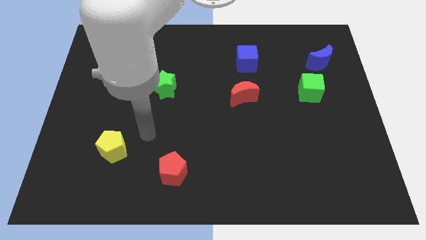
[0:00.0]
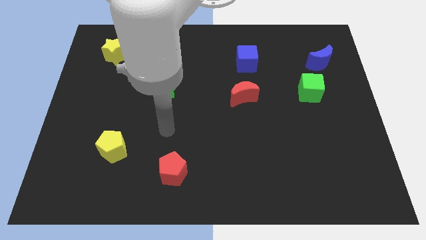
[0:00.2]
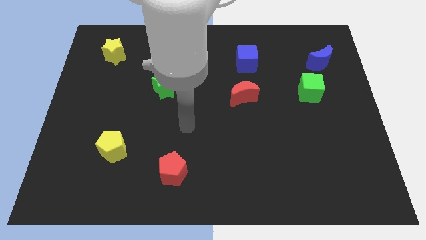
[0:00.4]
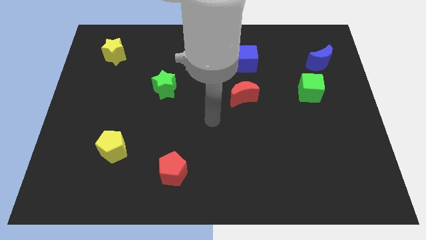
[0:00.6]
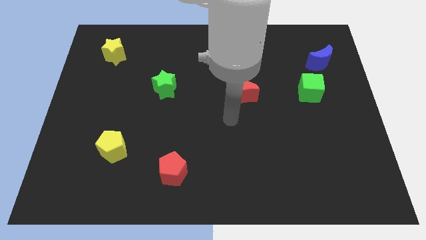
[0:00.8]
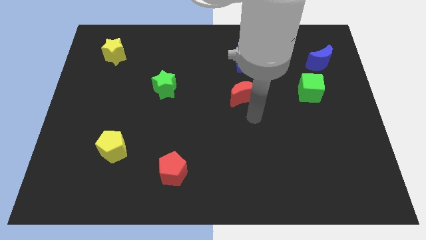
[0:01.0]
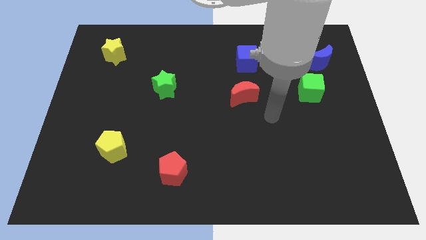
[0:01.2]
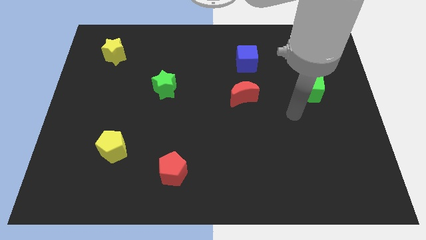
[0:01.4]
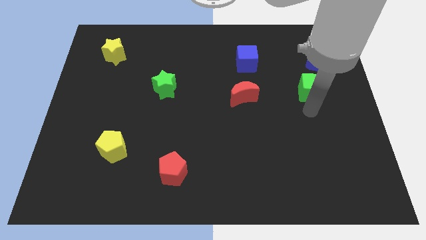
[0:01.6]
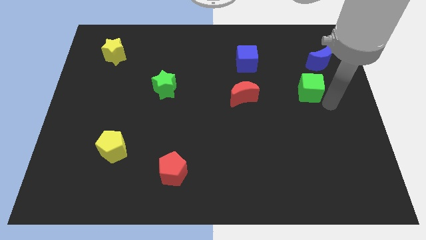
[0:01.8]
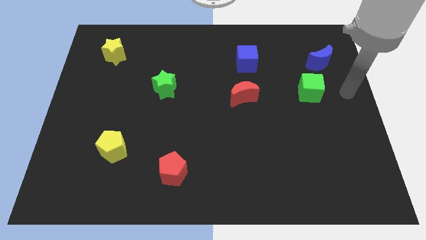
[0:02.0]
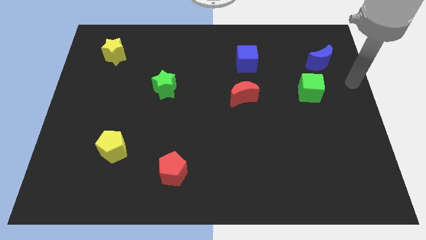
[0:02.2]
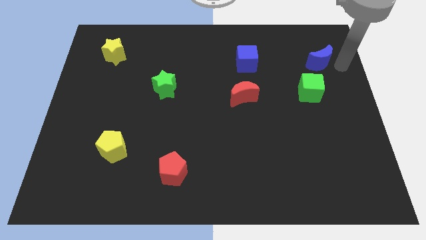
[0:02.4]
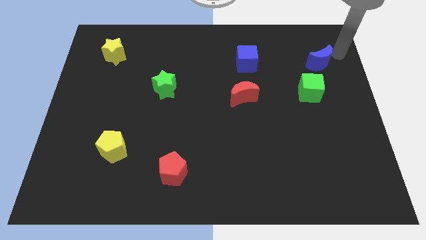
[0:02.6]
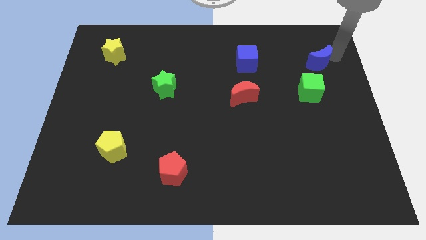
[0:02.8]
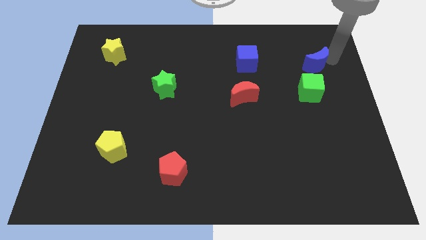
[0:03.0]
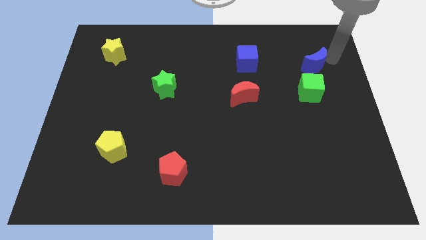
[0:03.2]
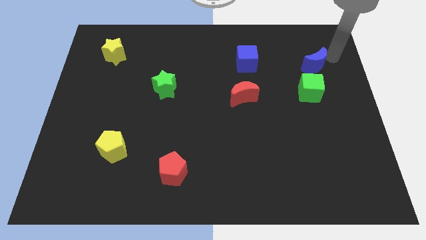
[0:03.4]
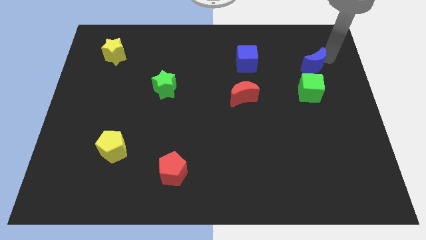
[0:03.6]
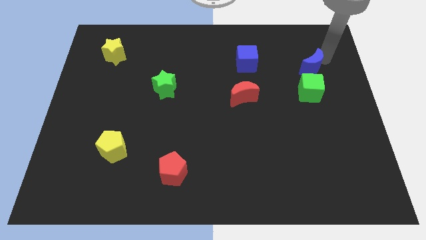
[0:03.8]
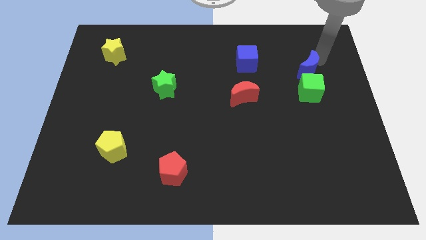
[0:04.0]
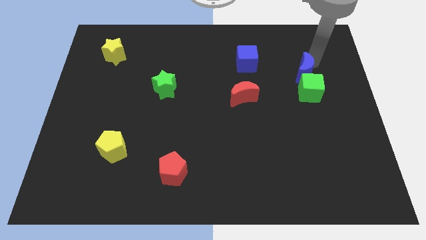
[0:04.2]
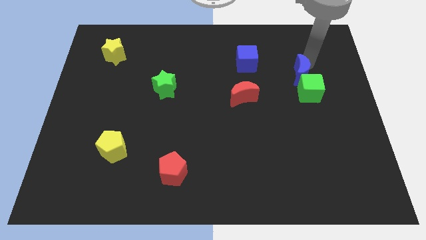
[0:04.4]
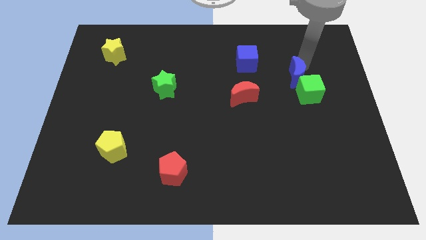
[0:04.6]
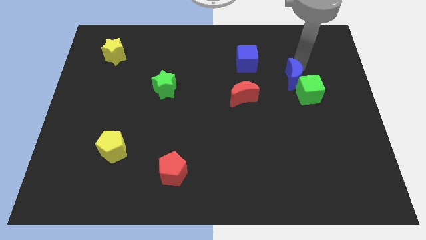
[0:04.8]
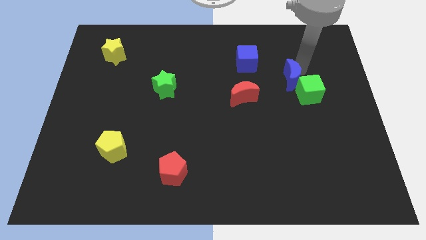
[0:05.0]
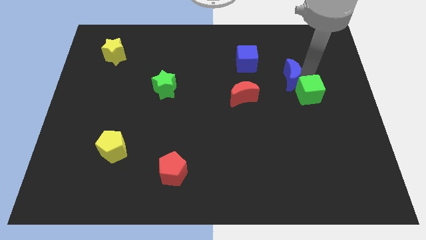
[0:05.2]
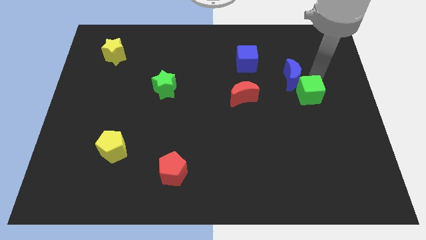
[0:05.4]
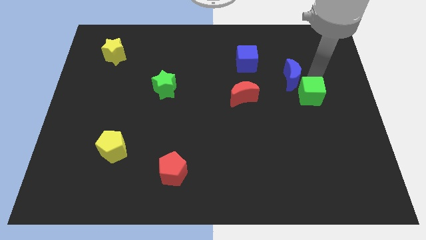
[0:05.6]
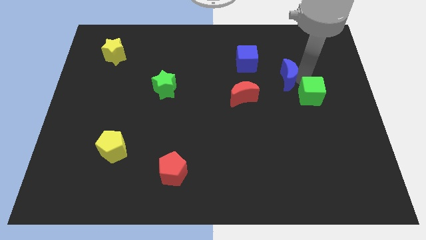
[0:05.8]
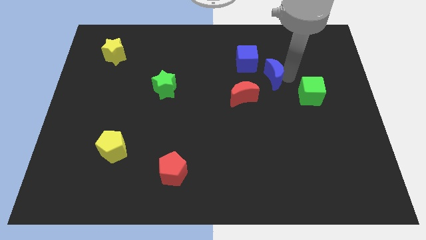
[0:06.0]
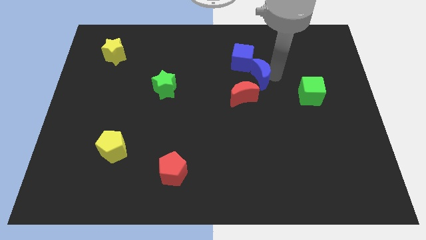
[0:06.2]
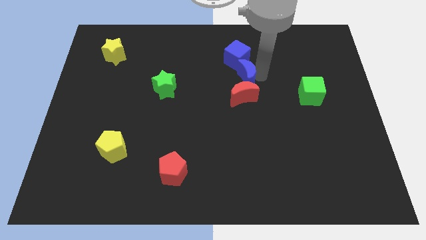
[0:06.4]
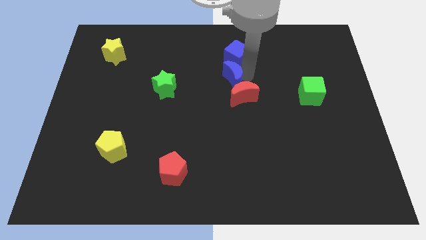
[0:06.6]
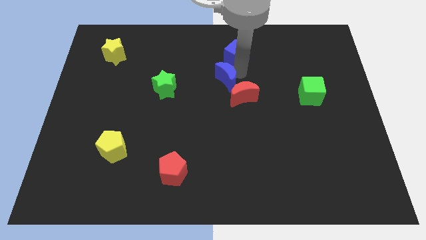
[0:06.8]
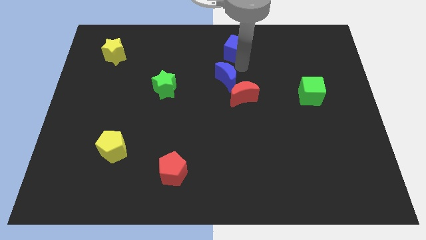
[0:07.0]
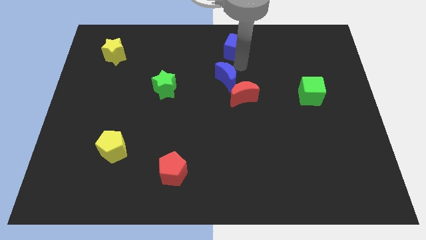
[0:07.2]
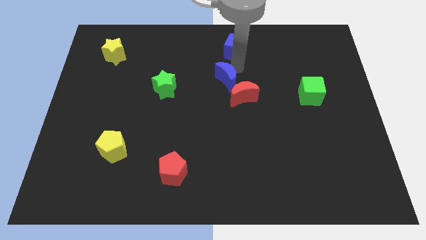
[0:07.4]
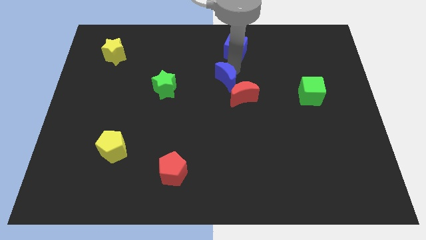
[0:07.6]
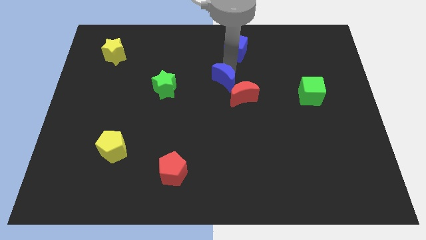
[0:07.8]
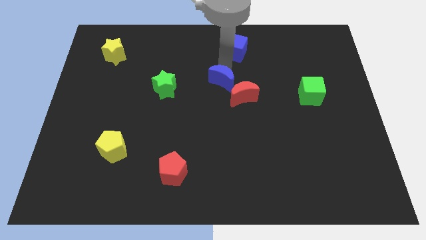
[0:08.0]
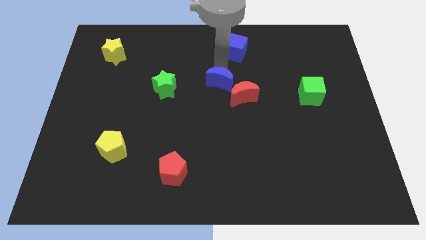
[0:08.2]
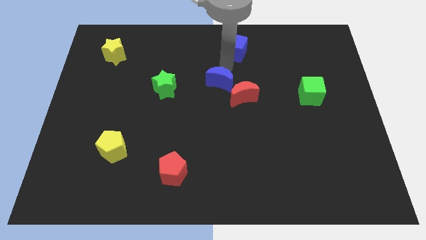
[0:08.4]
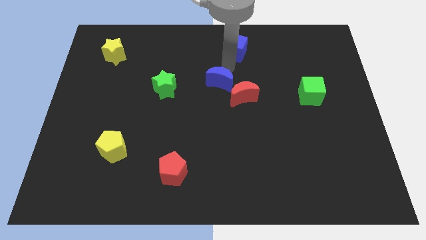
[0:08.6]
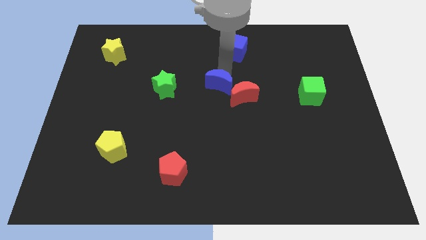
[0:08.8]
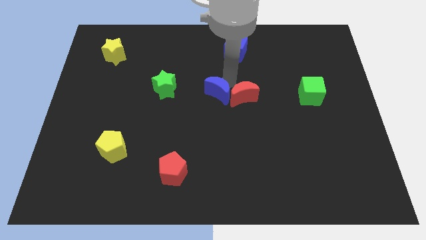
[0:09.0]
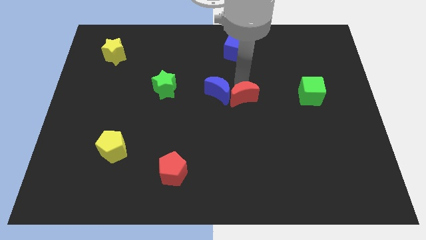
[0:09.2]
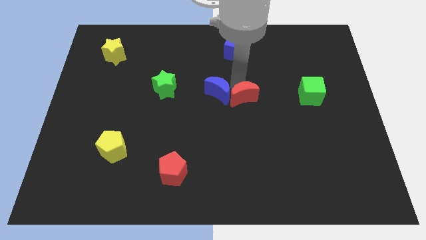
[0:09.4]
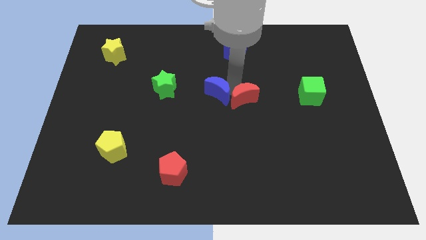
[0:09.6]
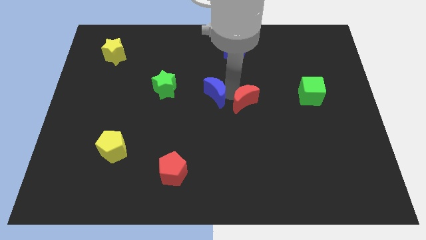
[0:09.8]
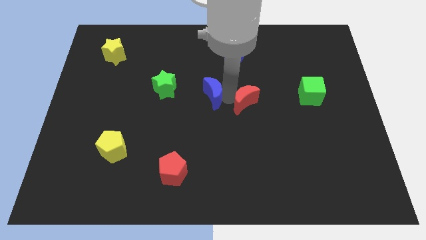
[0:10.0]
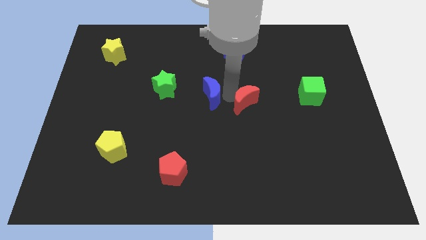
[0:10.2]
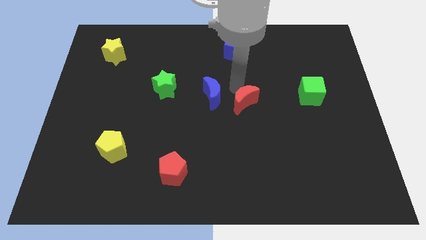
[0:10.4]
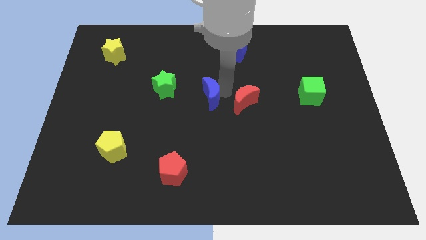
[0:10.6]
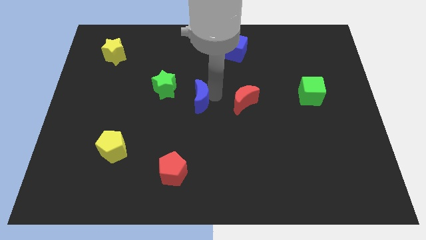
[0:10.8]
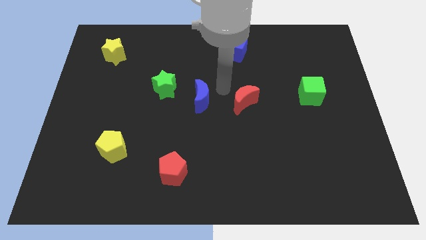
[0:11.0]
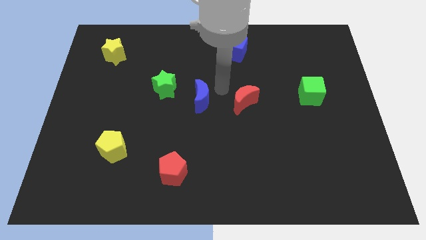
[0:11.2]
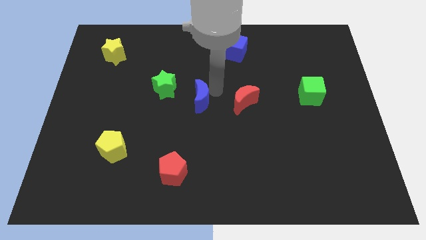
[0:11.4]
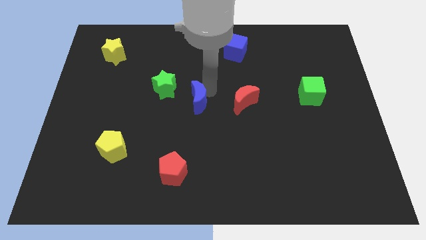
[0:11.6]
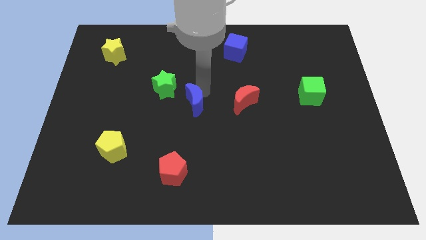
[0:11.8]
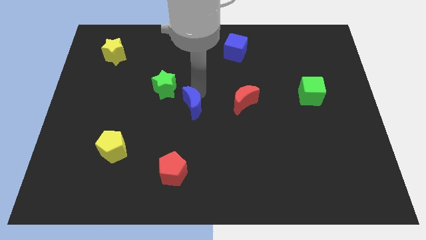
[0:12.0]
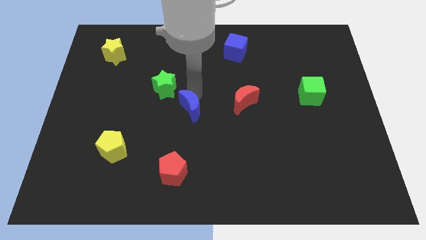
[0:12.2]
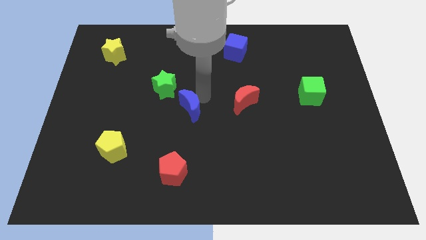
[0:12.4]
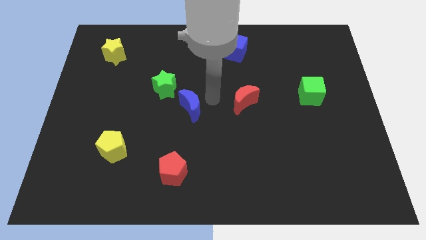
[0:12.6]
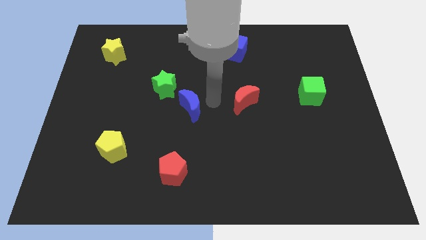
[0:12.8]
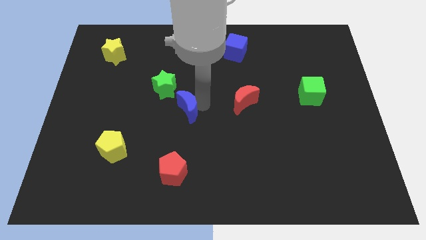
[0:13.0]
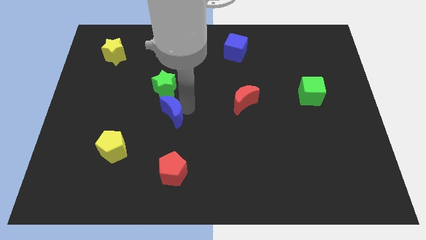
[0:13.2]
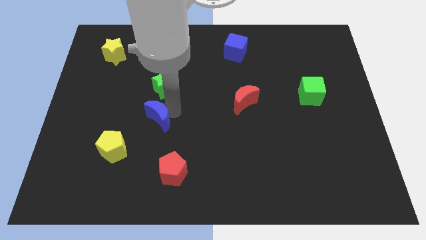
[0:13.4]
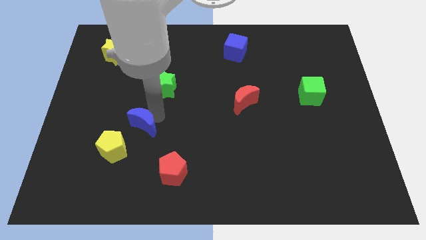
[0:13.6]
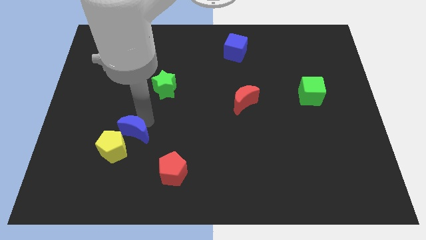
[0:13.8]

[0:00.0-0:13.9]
move the blue moon to the yellow pentagon
